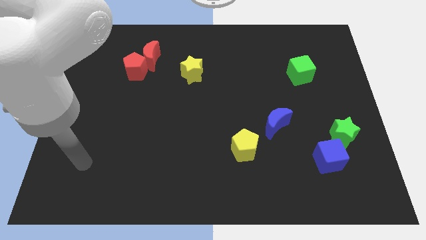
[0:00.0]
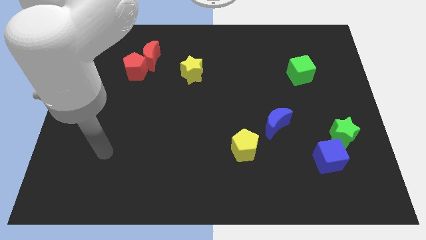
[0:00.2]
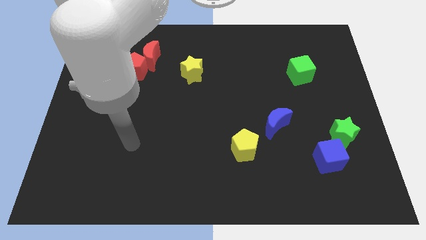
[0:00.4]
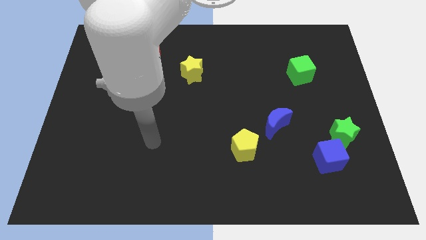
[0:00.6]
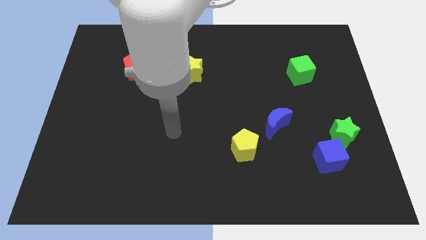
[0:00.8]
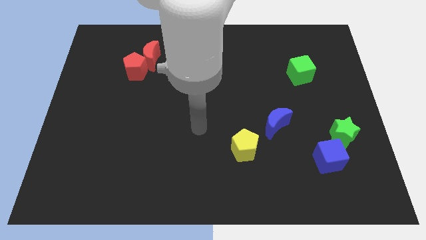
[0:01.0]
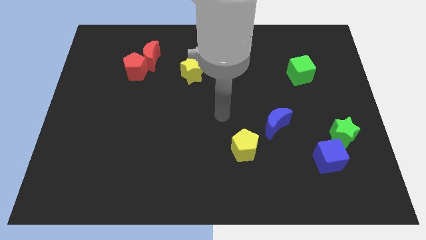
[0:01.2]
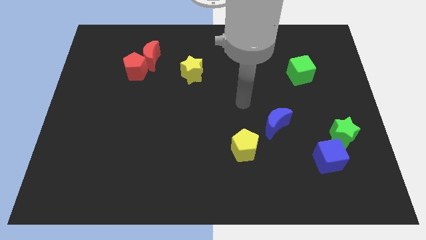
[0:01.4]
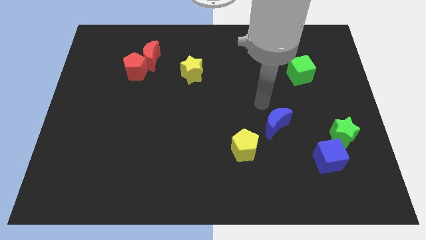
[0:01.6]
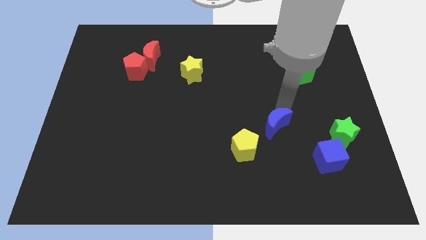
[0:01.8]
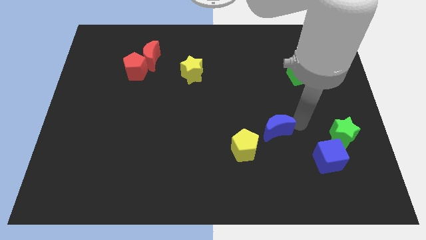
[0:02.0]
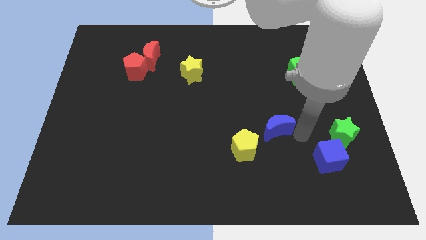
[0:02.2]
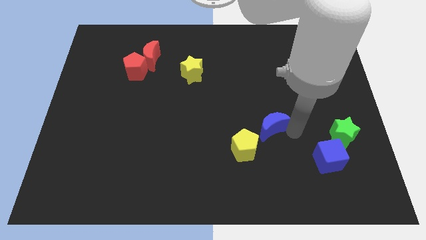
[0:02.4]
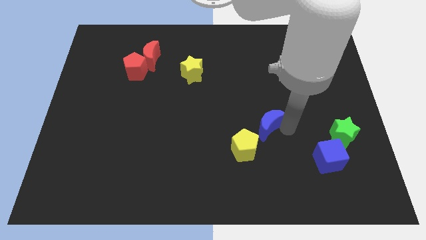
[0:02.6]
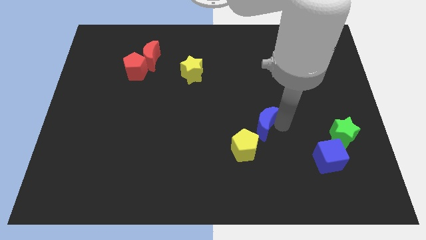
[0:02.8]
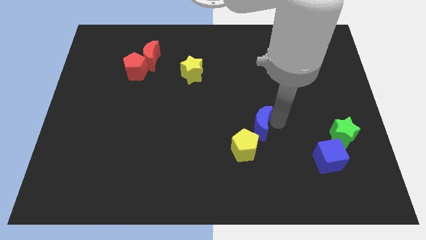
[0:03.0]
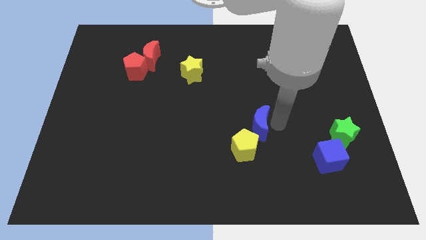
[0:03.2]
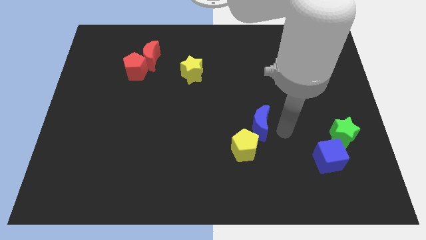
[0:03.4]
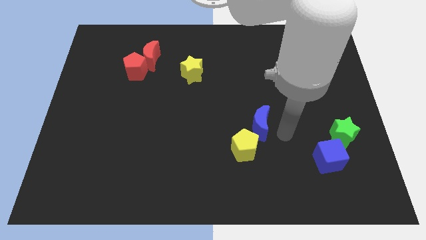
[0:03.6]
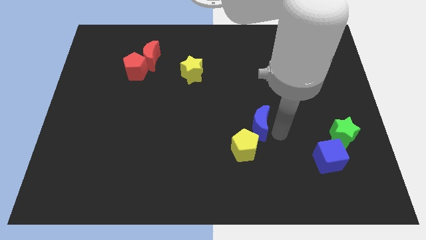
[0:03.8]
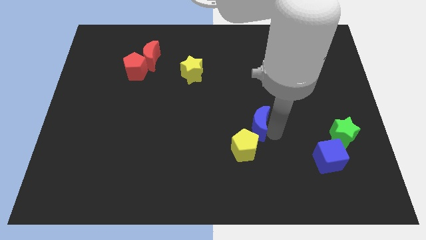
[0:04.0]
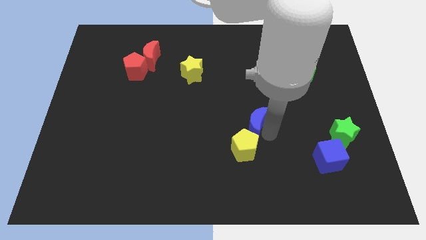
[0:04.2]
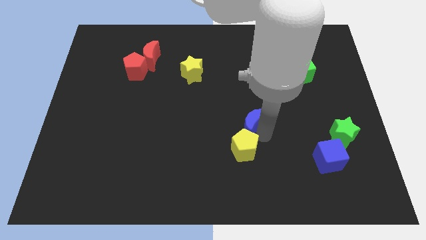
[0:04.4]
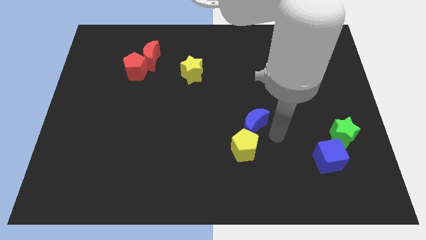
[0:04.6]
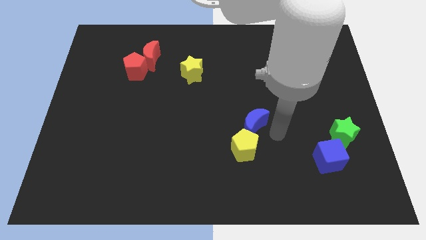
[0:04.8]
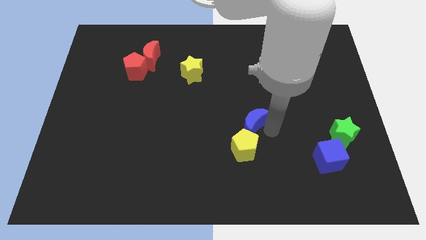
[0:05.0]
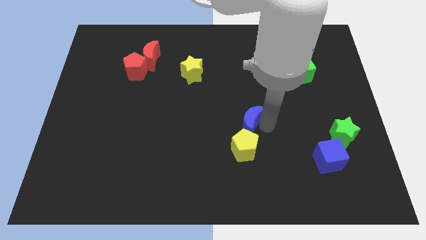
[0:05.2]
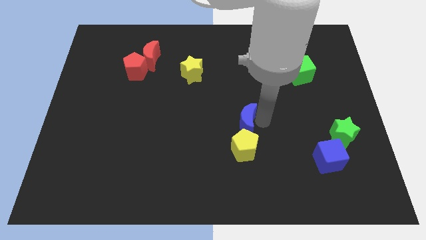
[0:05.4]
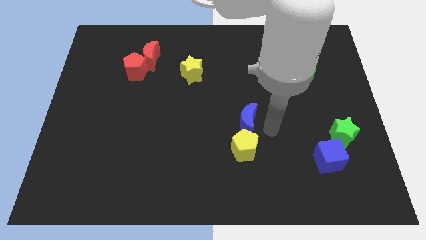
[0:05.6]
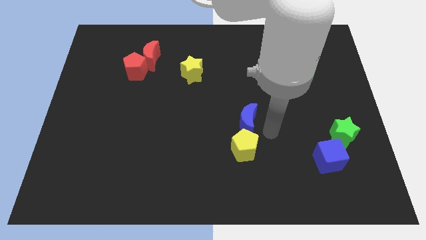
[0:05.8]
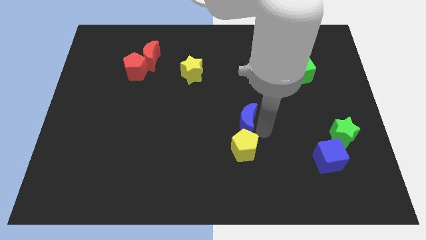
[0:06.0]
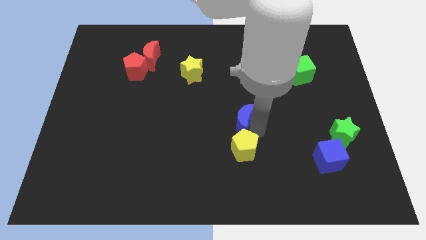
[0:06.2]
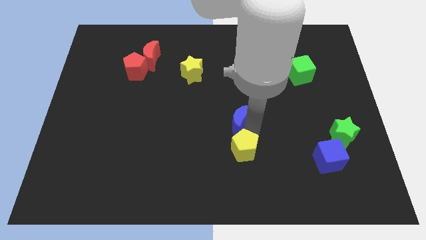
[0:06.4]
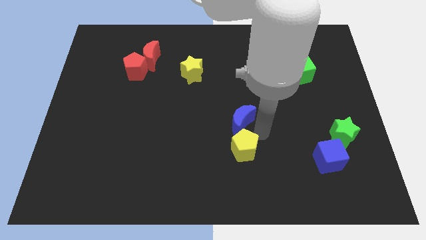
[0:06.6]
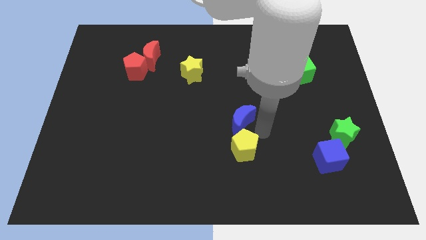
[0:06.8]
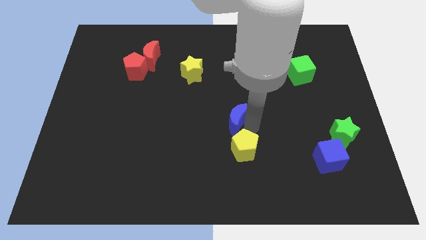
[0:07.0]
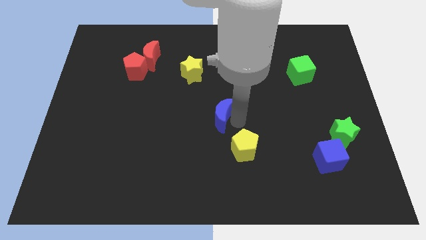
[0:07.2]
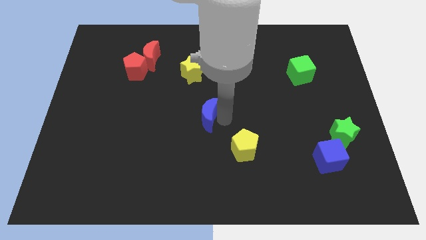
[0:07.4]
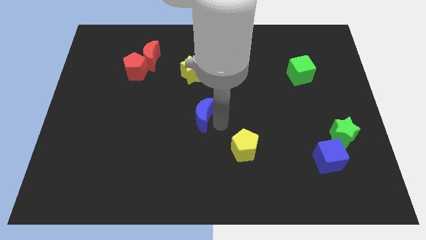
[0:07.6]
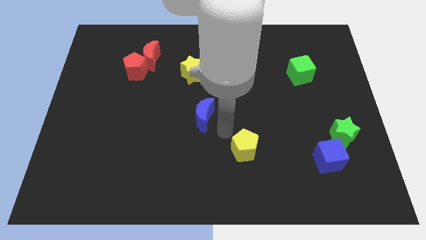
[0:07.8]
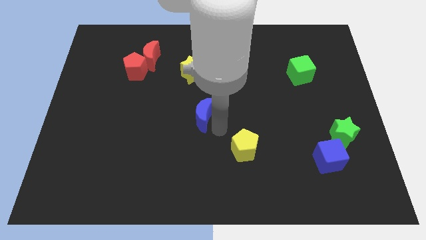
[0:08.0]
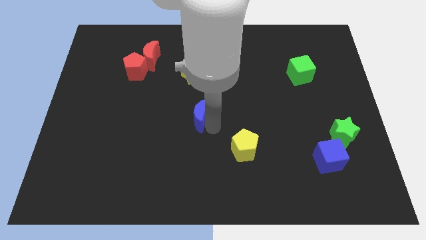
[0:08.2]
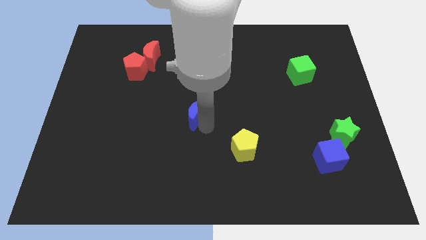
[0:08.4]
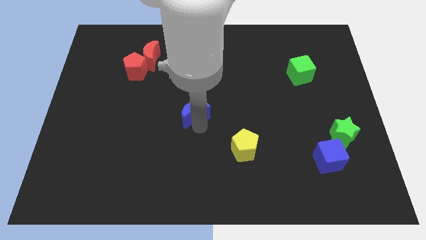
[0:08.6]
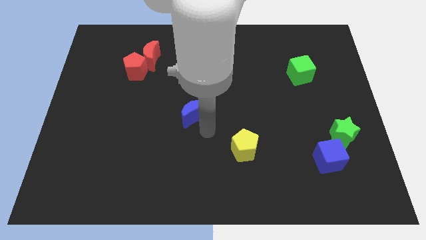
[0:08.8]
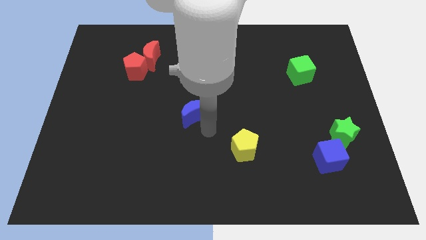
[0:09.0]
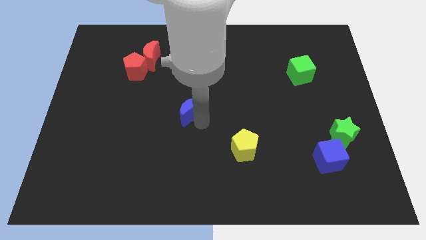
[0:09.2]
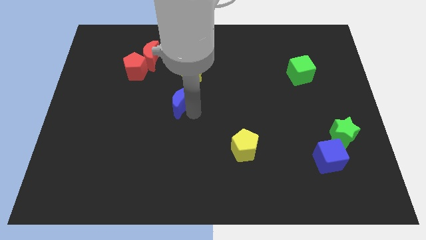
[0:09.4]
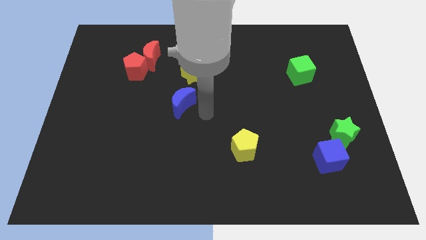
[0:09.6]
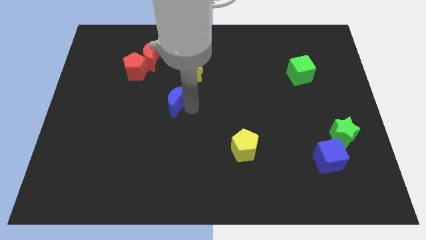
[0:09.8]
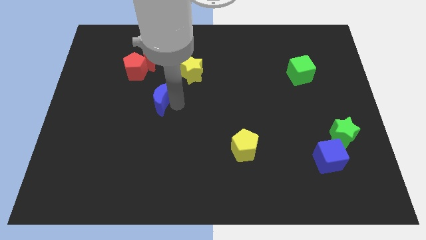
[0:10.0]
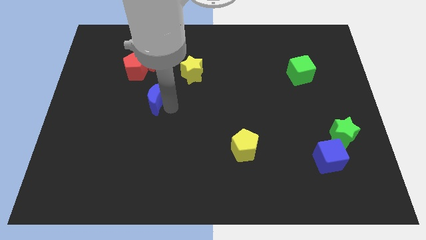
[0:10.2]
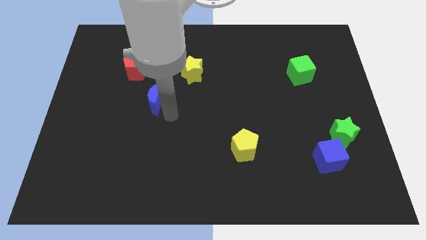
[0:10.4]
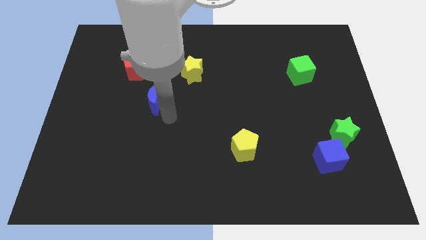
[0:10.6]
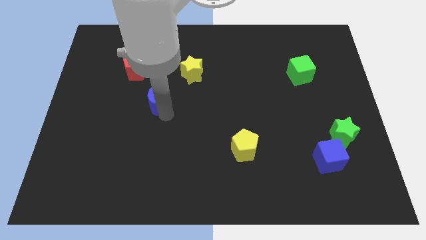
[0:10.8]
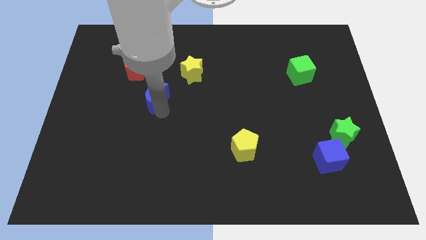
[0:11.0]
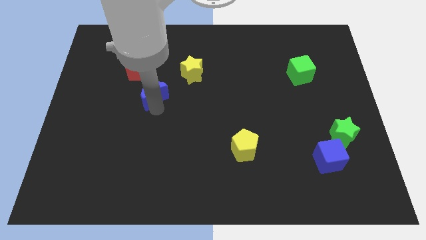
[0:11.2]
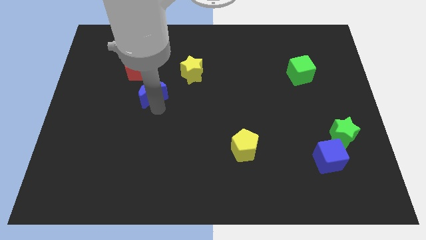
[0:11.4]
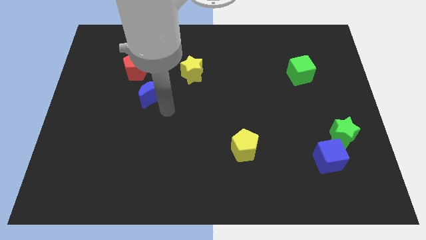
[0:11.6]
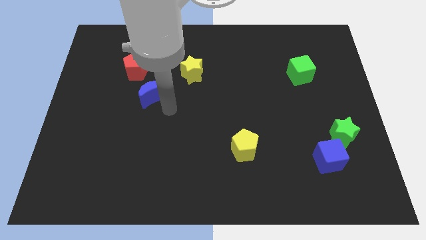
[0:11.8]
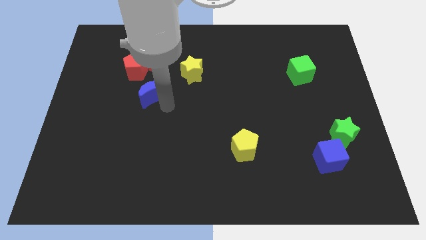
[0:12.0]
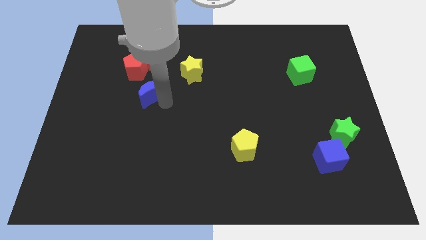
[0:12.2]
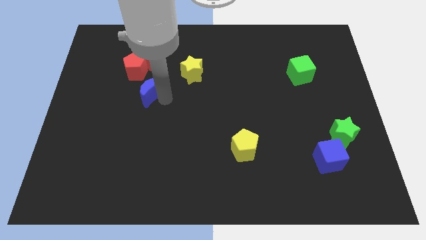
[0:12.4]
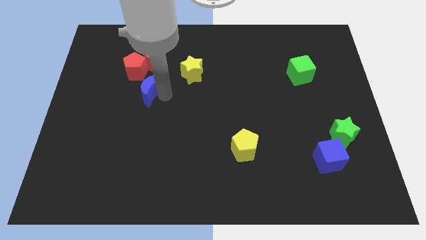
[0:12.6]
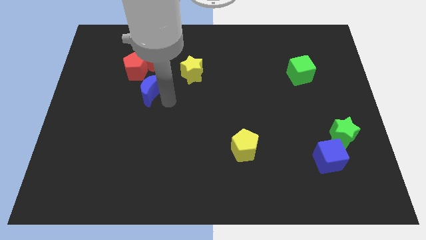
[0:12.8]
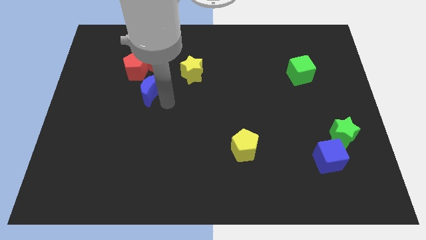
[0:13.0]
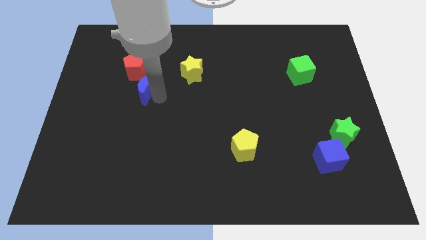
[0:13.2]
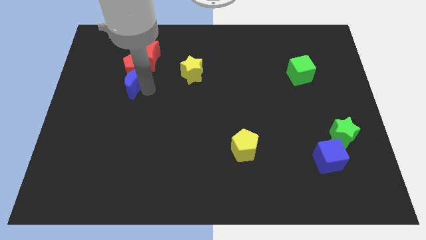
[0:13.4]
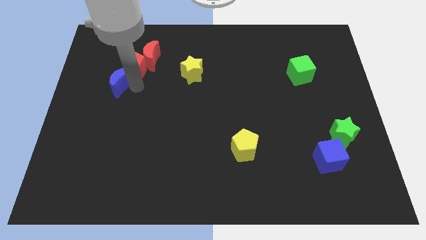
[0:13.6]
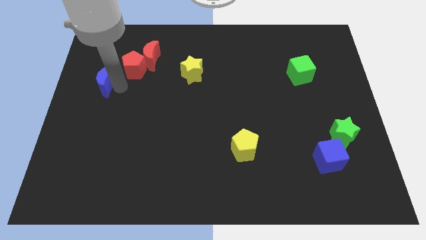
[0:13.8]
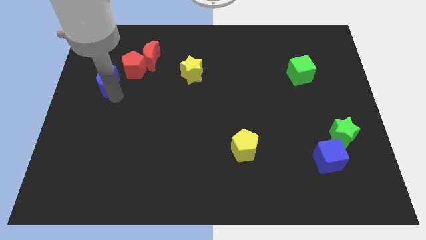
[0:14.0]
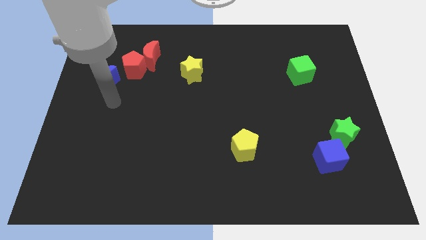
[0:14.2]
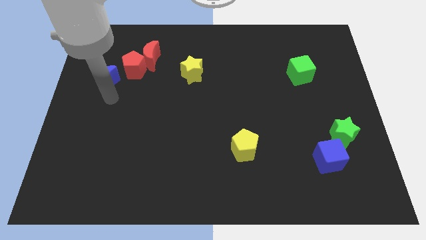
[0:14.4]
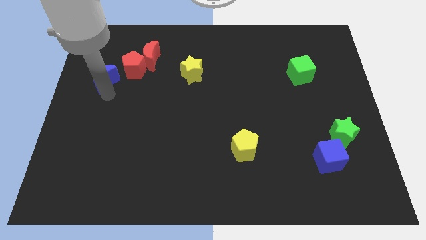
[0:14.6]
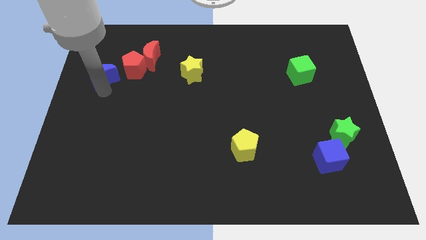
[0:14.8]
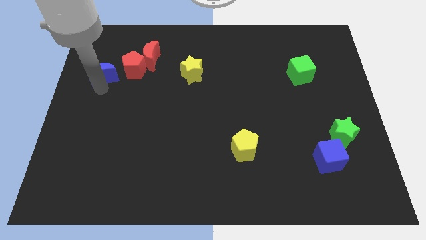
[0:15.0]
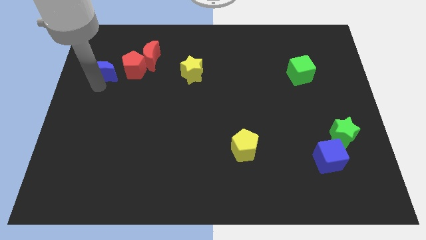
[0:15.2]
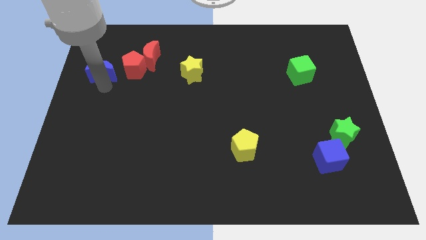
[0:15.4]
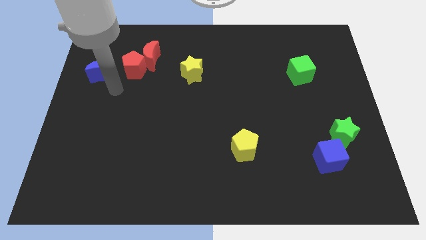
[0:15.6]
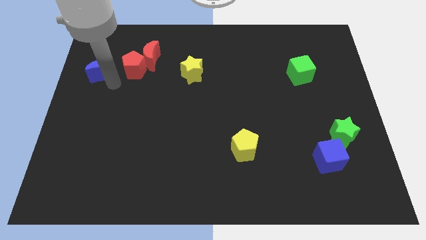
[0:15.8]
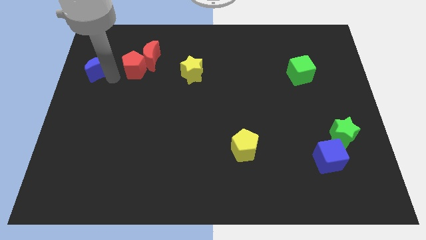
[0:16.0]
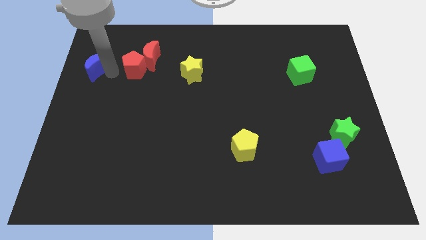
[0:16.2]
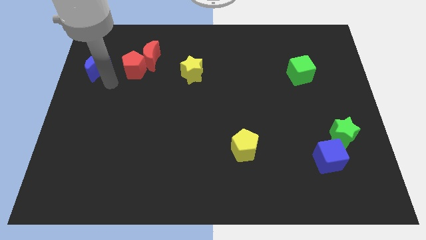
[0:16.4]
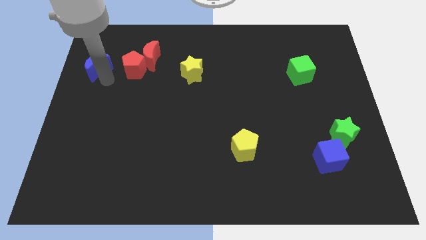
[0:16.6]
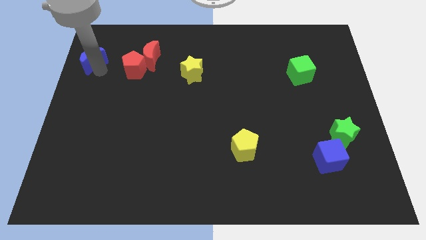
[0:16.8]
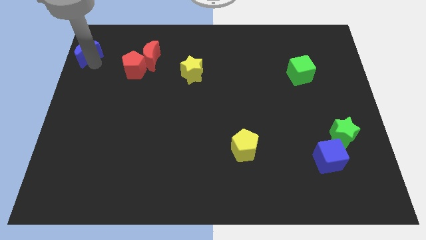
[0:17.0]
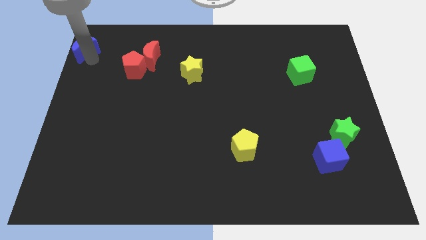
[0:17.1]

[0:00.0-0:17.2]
push the blue moon to the top left corner
